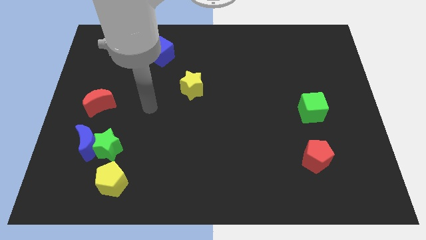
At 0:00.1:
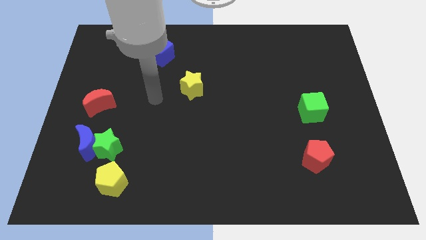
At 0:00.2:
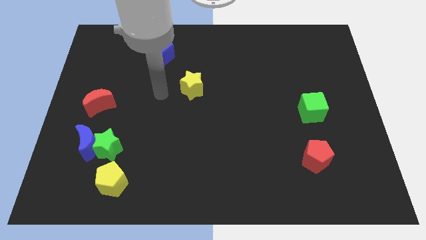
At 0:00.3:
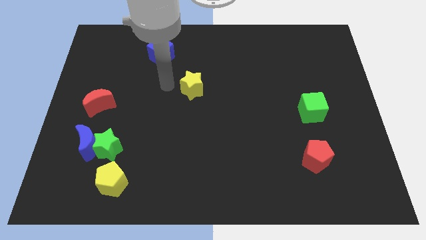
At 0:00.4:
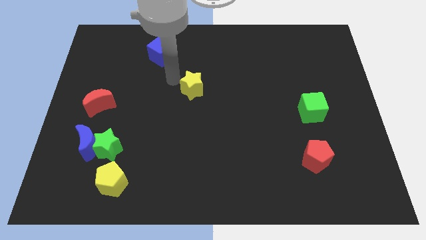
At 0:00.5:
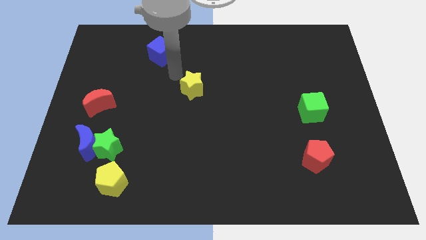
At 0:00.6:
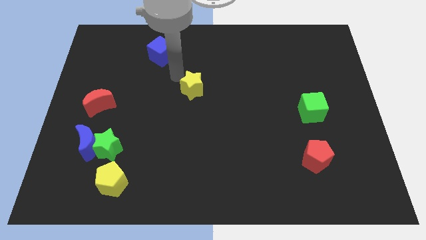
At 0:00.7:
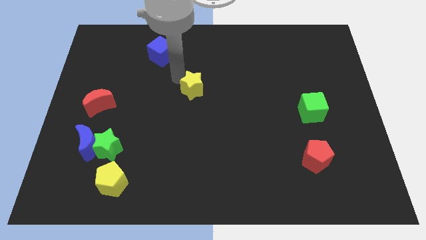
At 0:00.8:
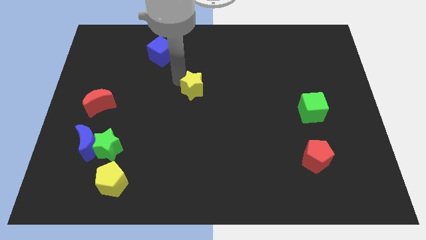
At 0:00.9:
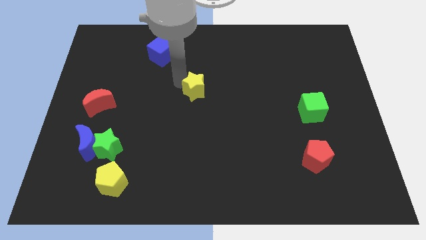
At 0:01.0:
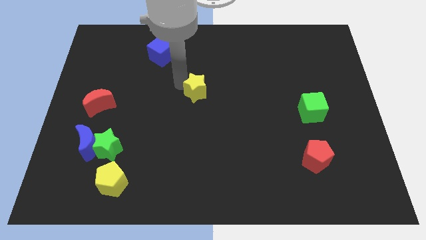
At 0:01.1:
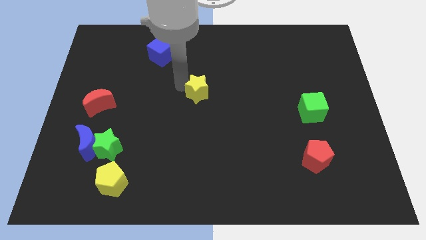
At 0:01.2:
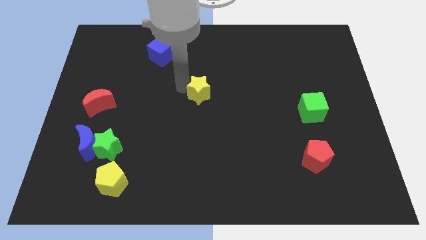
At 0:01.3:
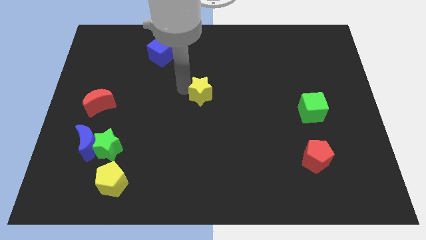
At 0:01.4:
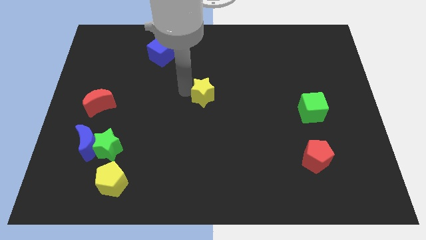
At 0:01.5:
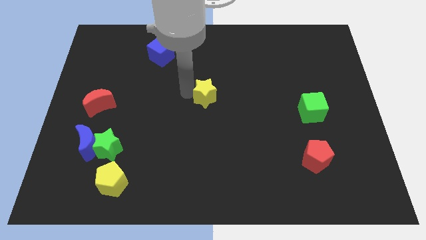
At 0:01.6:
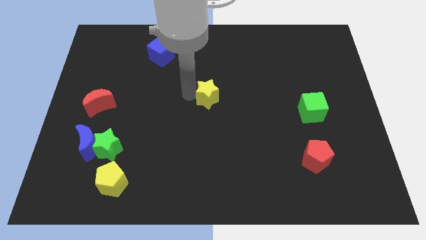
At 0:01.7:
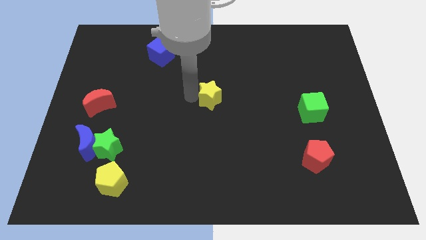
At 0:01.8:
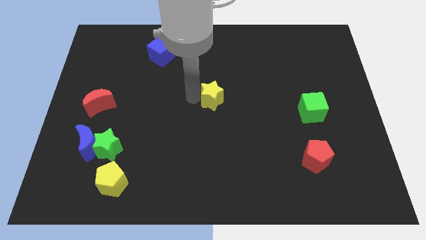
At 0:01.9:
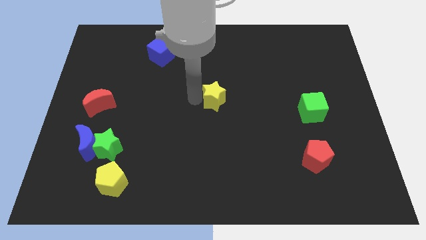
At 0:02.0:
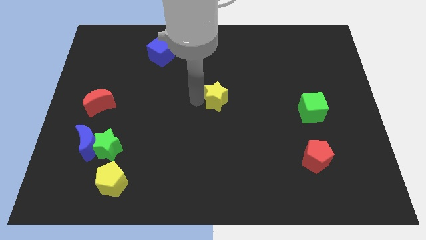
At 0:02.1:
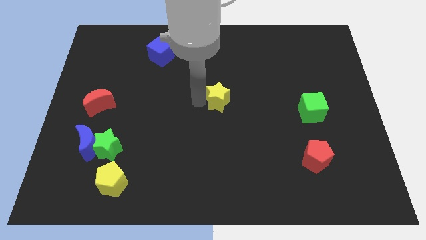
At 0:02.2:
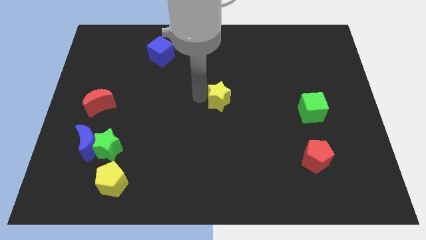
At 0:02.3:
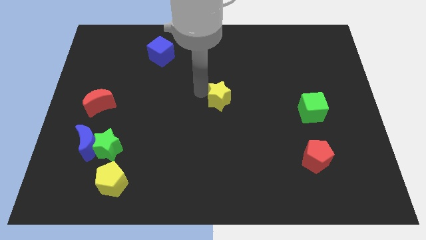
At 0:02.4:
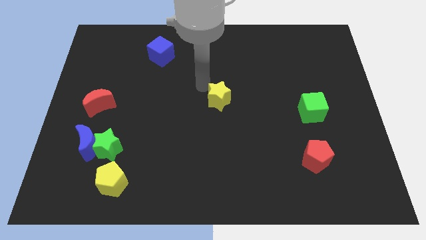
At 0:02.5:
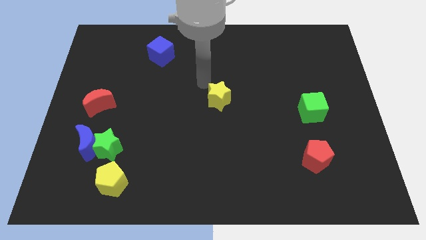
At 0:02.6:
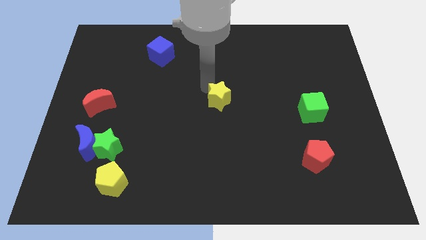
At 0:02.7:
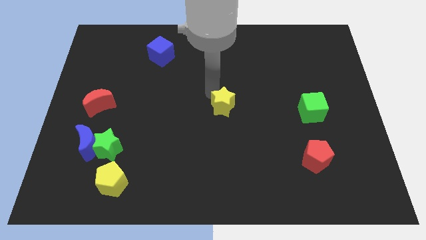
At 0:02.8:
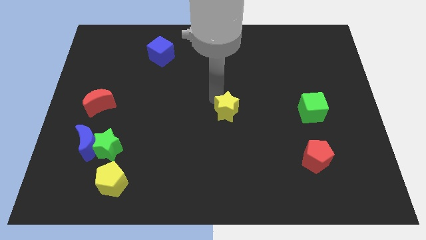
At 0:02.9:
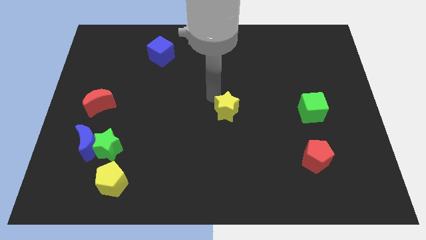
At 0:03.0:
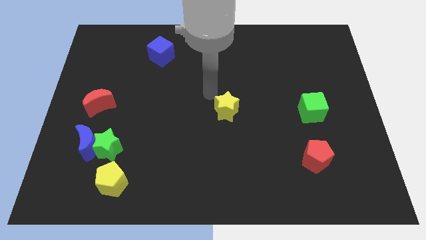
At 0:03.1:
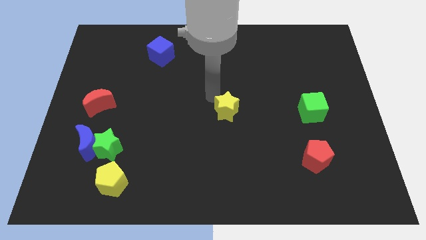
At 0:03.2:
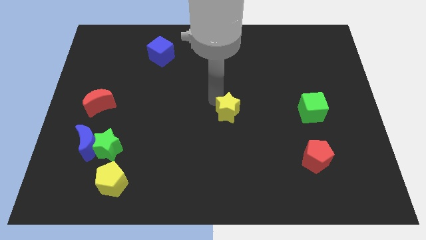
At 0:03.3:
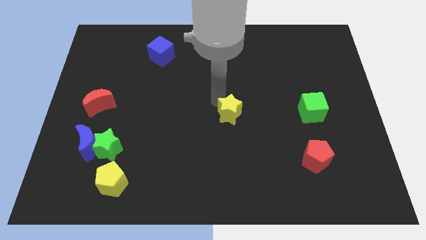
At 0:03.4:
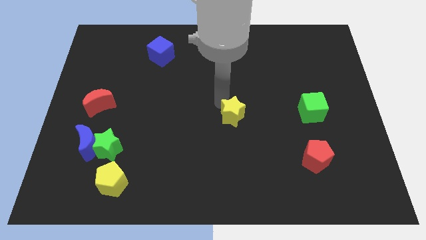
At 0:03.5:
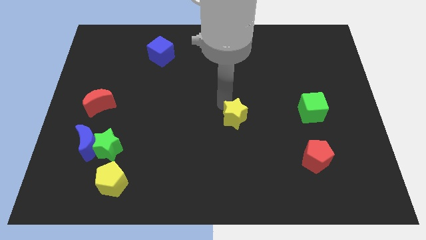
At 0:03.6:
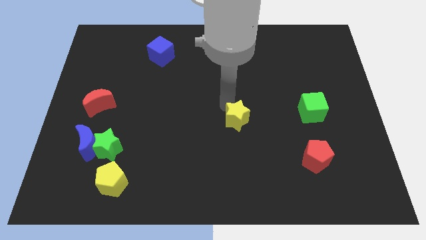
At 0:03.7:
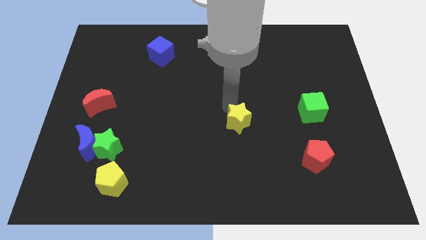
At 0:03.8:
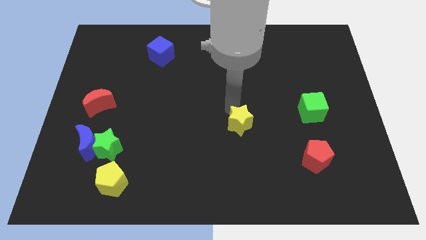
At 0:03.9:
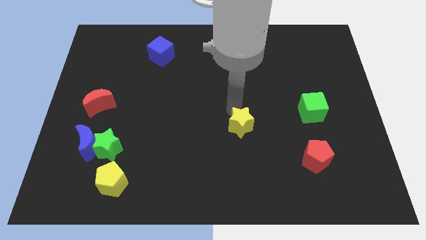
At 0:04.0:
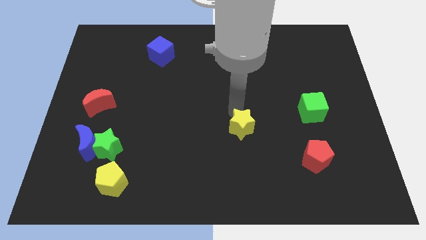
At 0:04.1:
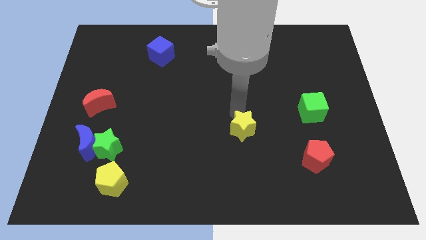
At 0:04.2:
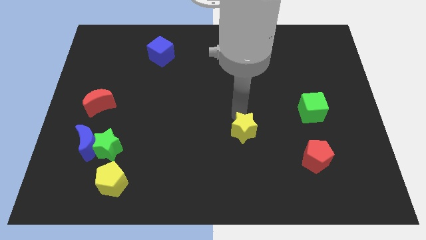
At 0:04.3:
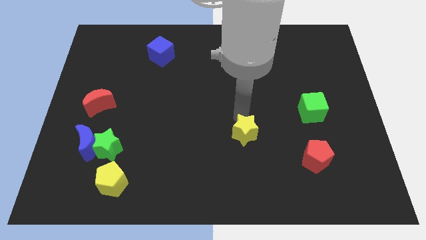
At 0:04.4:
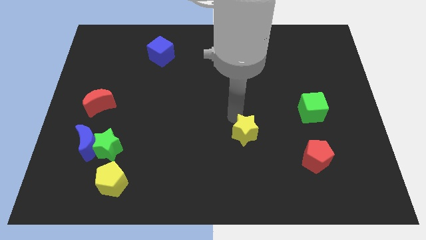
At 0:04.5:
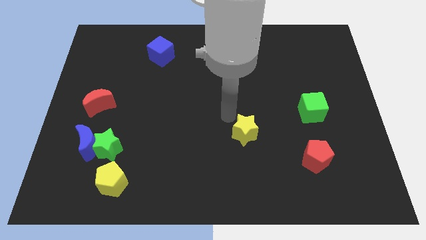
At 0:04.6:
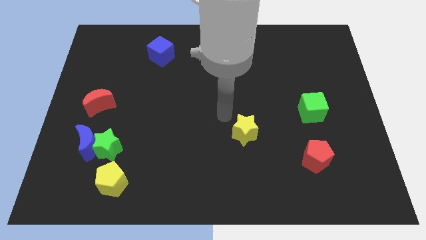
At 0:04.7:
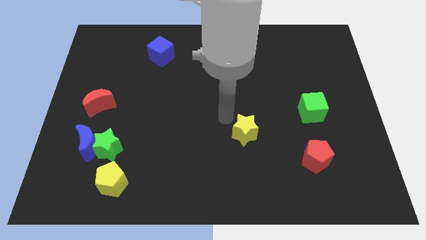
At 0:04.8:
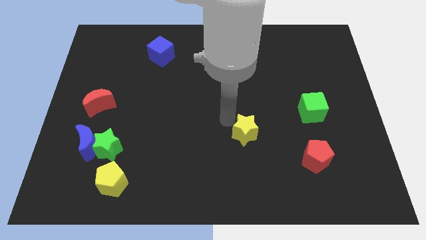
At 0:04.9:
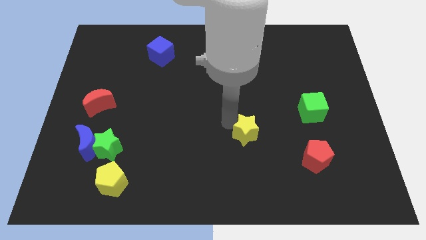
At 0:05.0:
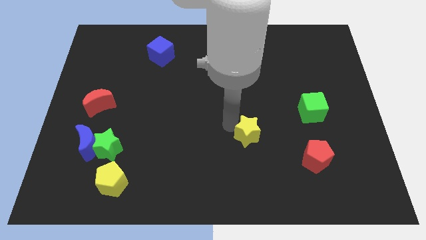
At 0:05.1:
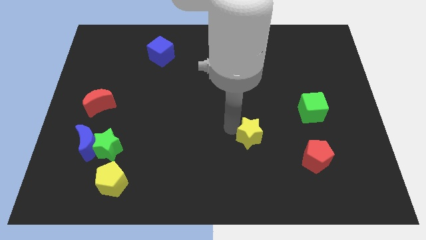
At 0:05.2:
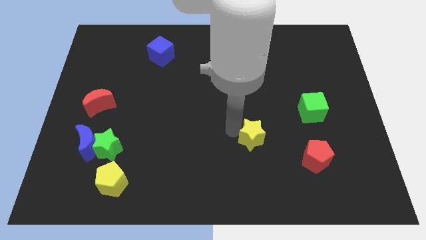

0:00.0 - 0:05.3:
move the yellow star downwards and to the right

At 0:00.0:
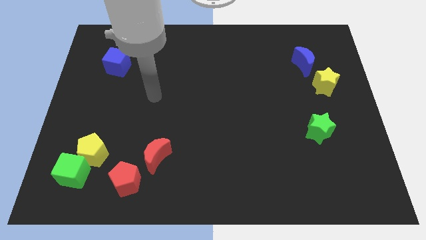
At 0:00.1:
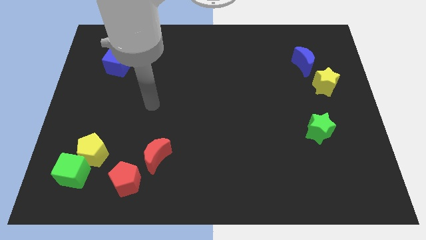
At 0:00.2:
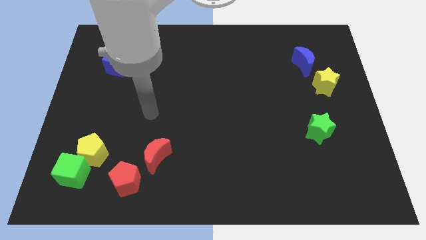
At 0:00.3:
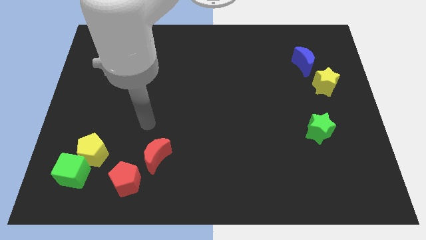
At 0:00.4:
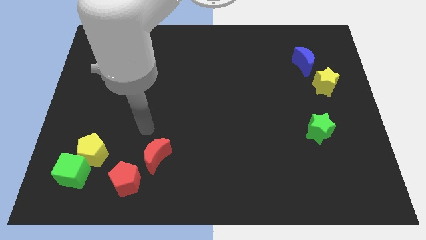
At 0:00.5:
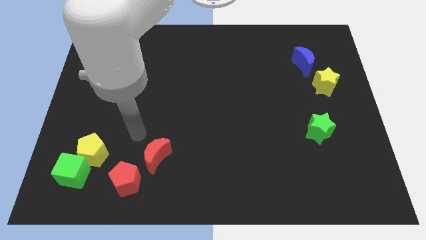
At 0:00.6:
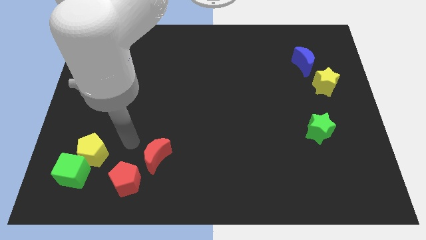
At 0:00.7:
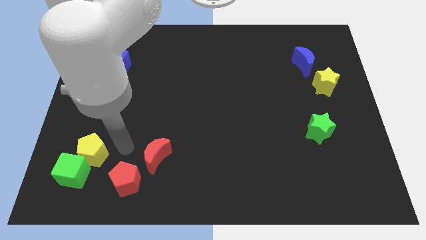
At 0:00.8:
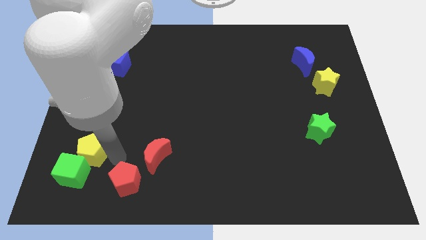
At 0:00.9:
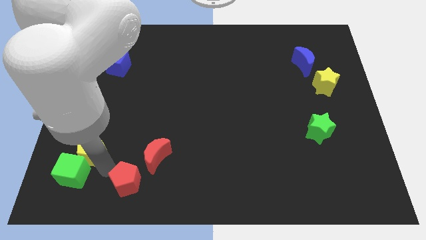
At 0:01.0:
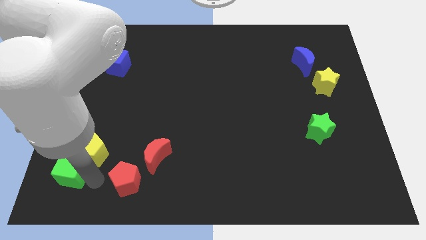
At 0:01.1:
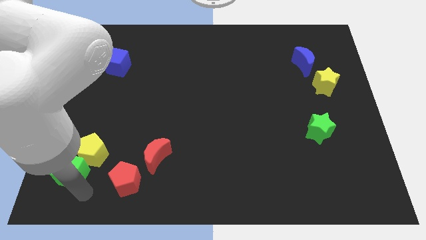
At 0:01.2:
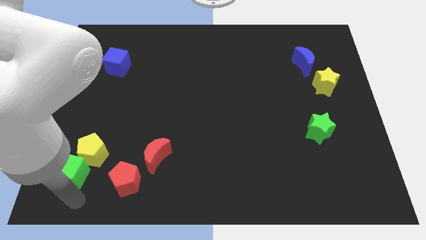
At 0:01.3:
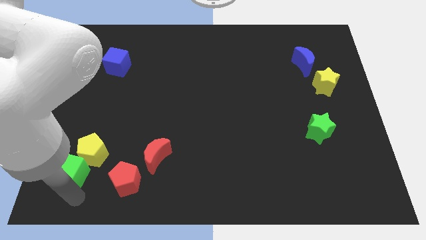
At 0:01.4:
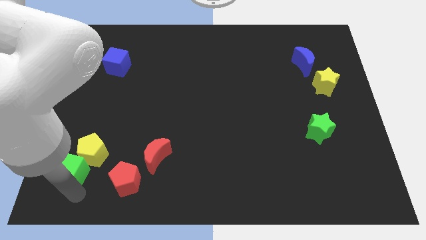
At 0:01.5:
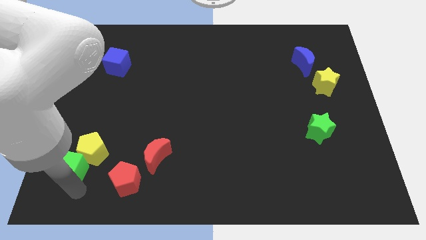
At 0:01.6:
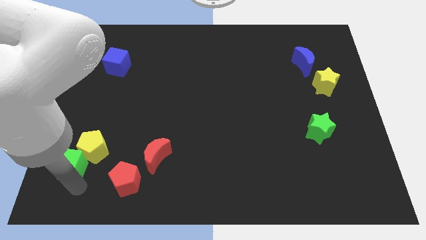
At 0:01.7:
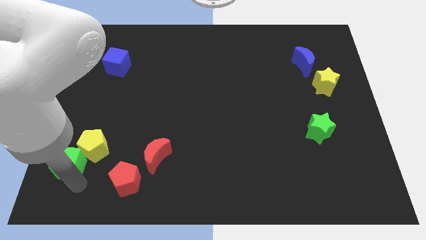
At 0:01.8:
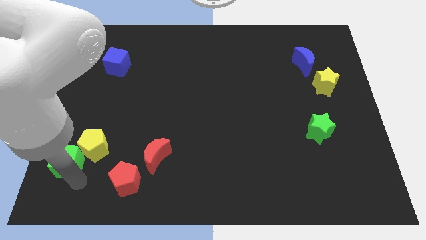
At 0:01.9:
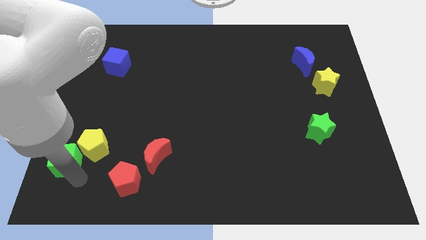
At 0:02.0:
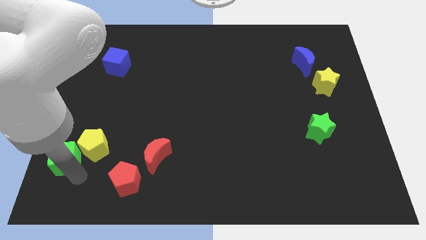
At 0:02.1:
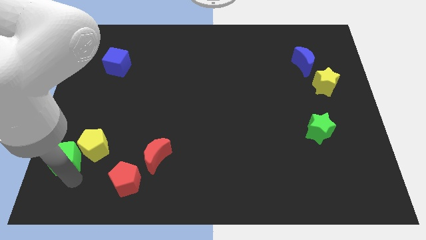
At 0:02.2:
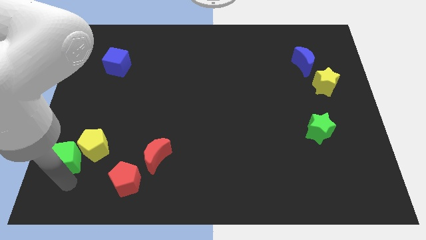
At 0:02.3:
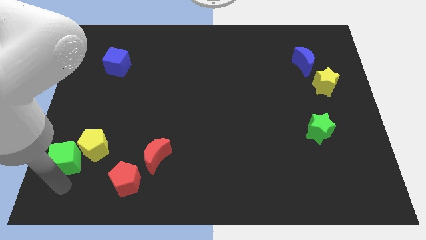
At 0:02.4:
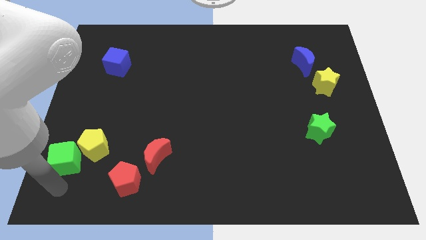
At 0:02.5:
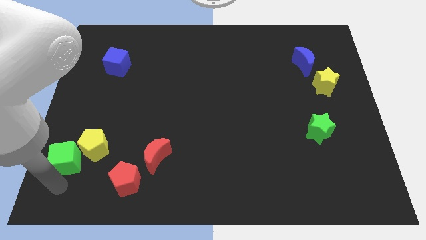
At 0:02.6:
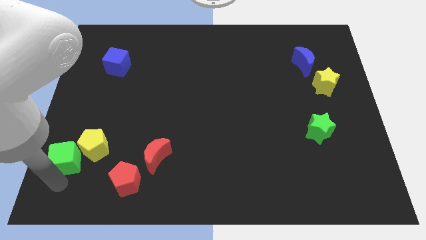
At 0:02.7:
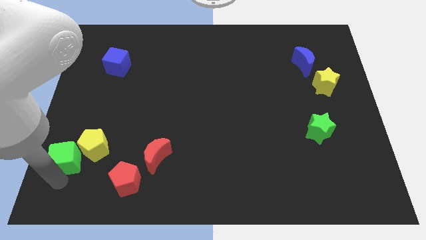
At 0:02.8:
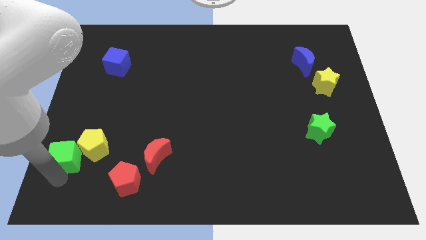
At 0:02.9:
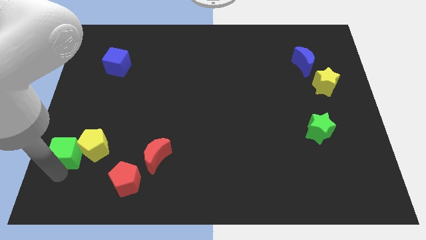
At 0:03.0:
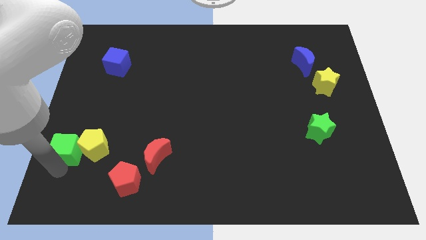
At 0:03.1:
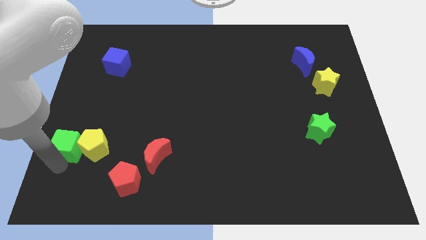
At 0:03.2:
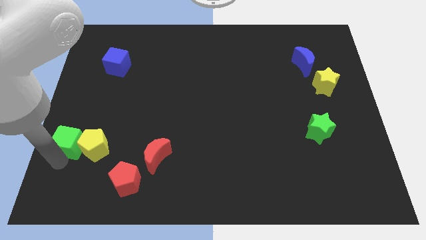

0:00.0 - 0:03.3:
slide the green cube up a little
